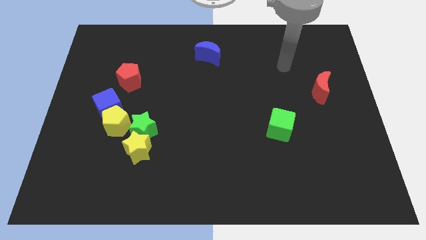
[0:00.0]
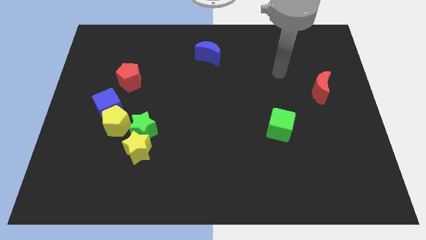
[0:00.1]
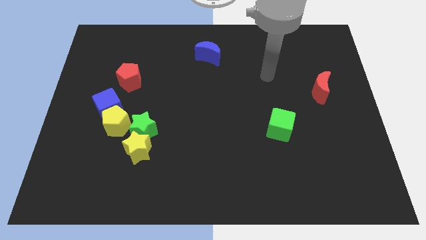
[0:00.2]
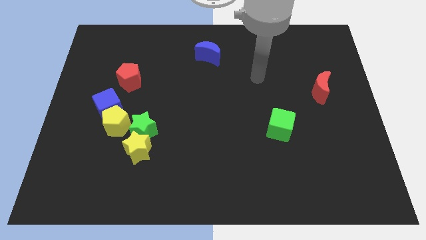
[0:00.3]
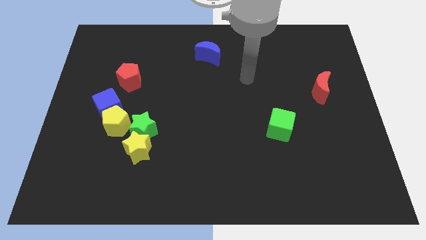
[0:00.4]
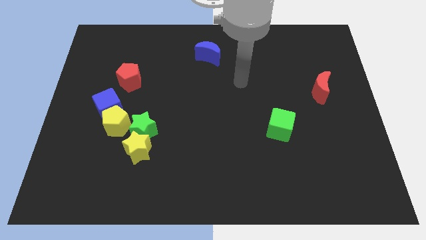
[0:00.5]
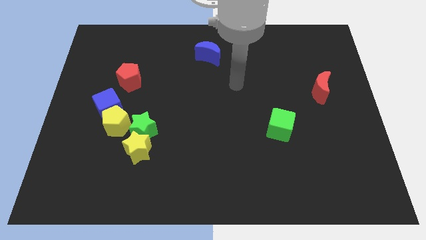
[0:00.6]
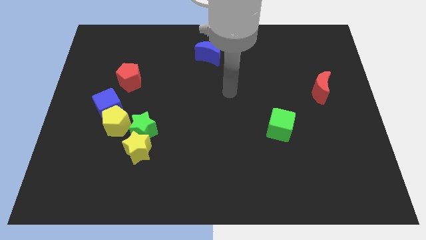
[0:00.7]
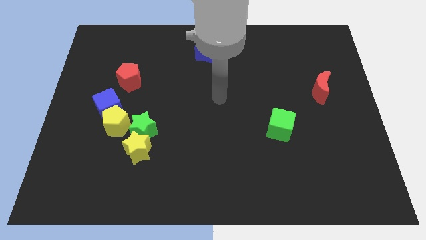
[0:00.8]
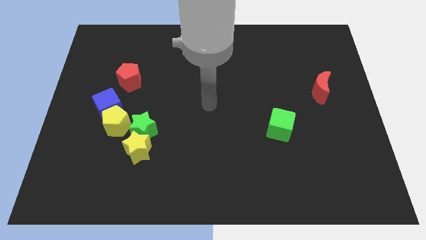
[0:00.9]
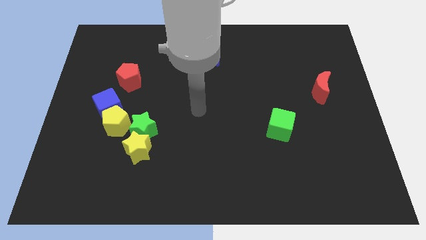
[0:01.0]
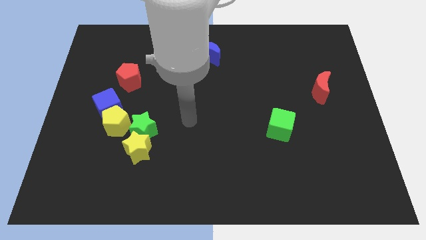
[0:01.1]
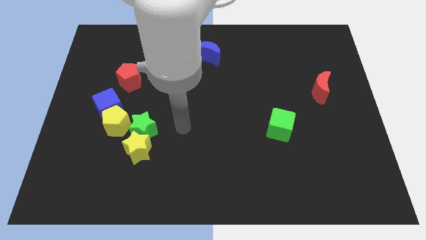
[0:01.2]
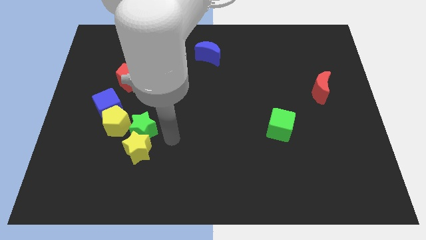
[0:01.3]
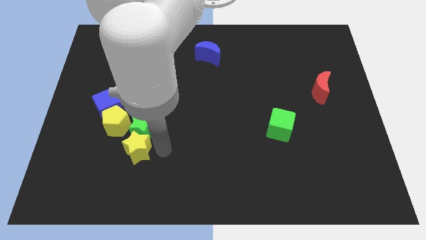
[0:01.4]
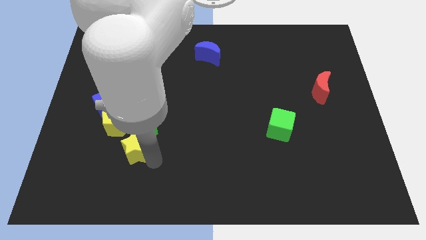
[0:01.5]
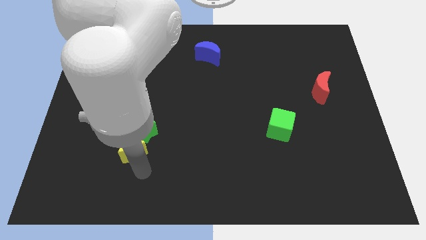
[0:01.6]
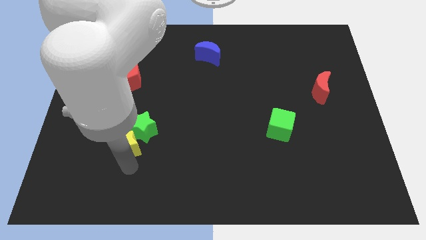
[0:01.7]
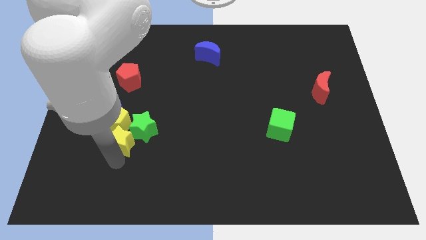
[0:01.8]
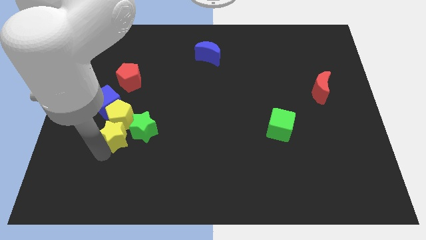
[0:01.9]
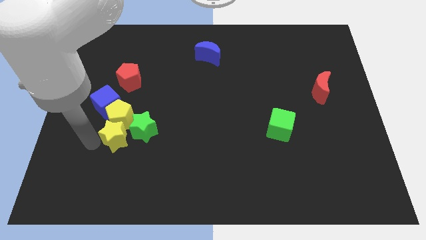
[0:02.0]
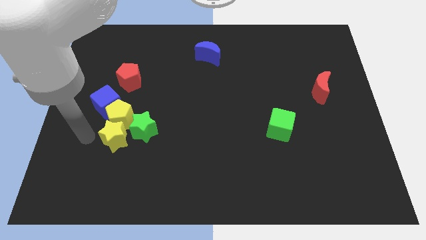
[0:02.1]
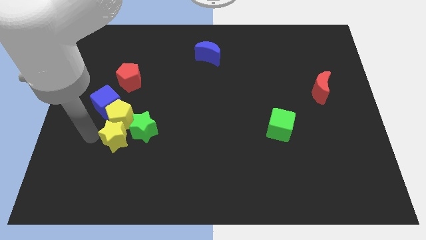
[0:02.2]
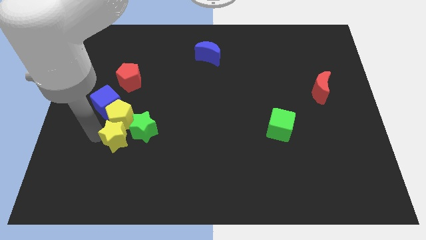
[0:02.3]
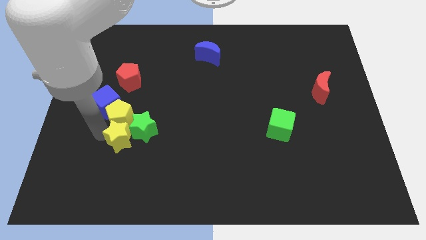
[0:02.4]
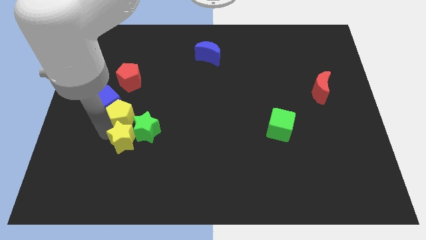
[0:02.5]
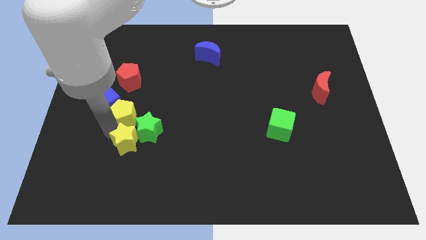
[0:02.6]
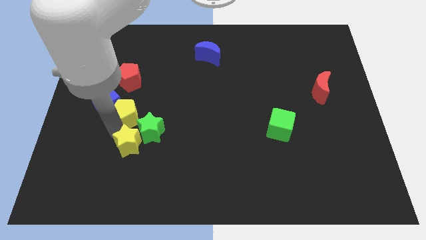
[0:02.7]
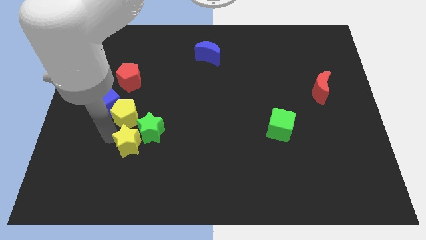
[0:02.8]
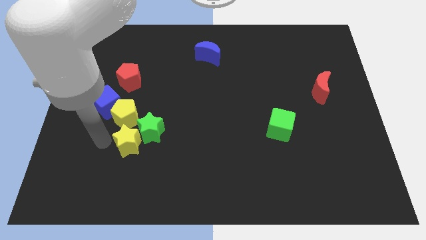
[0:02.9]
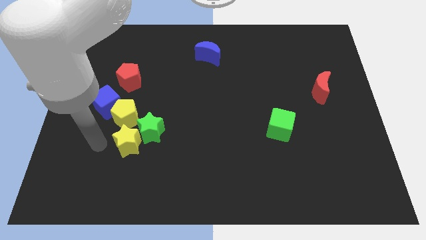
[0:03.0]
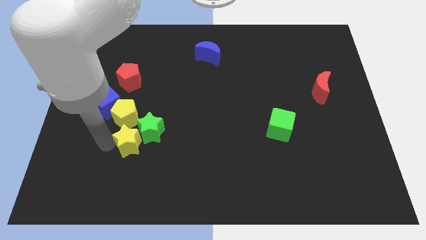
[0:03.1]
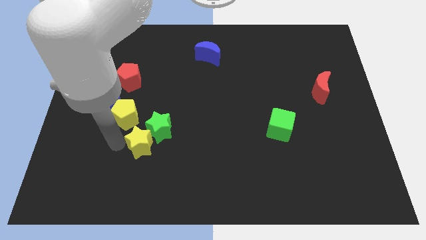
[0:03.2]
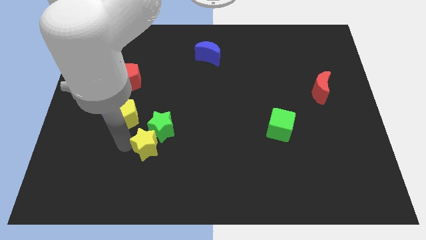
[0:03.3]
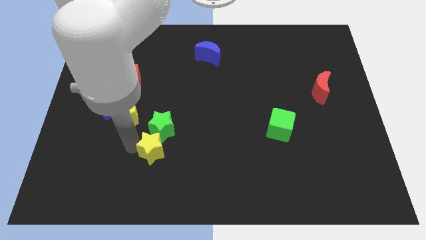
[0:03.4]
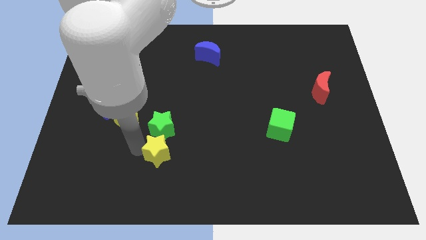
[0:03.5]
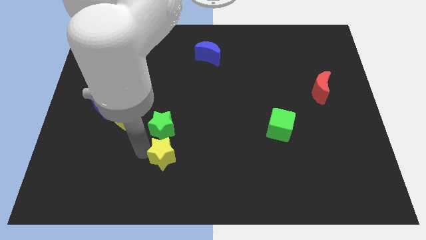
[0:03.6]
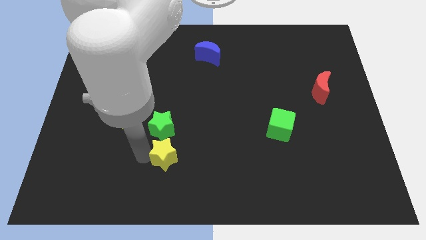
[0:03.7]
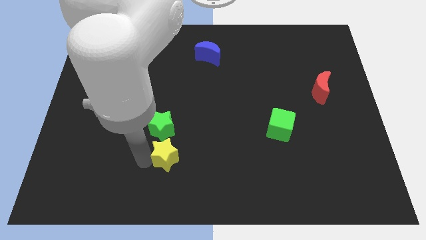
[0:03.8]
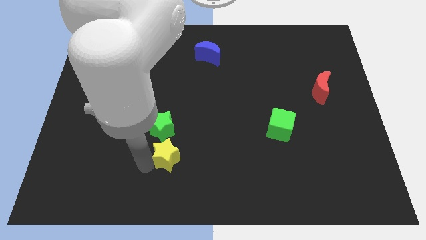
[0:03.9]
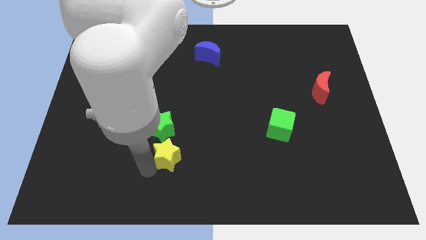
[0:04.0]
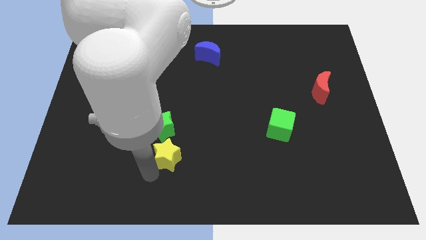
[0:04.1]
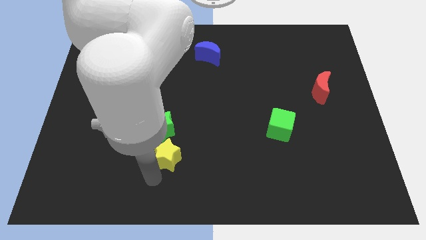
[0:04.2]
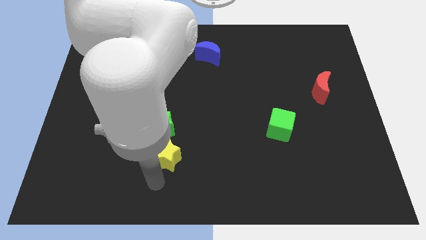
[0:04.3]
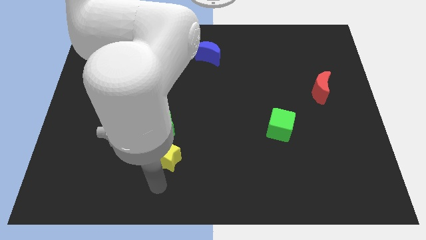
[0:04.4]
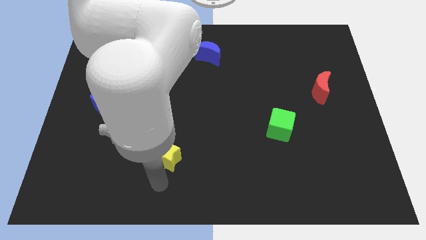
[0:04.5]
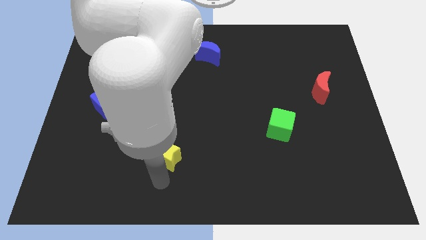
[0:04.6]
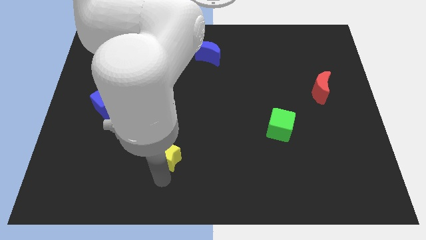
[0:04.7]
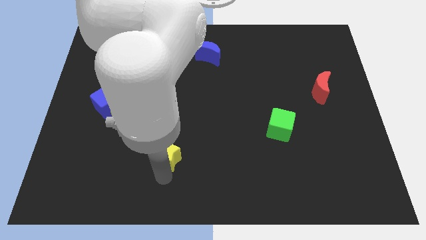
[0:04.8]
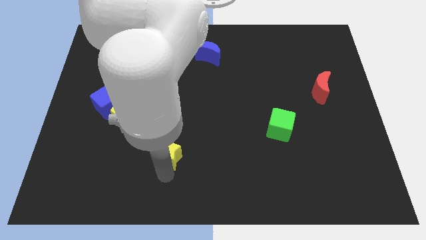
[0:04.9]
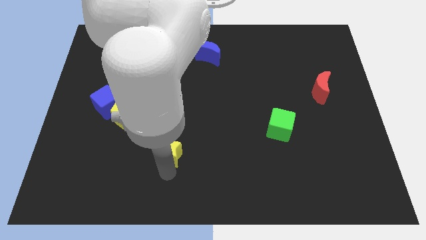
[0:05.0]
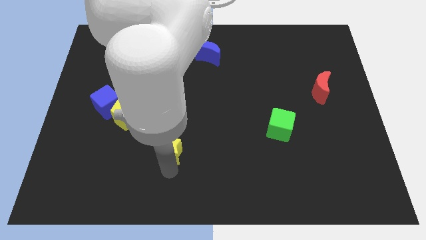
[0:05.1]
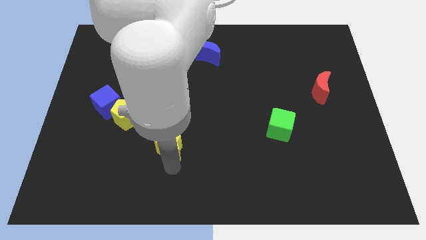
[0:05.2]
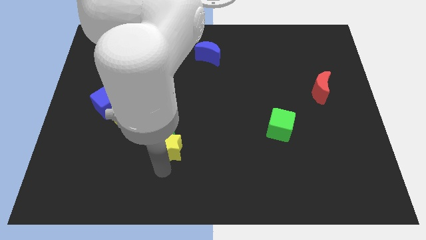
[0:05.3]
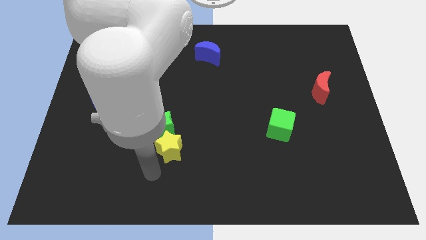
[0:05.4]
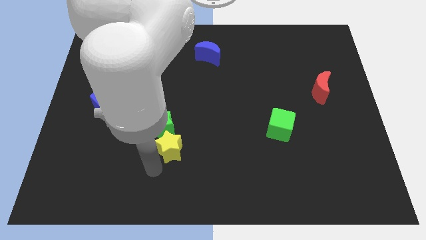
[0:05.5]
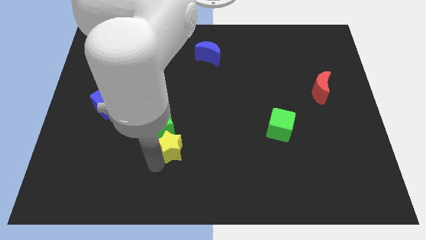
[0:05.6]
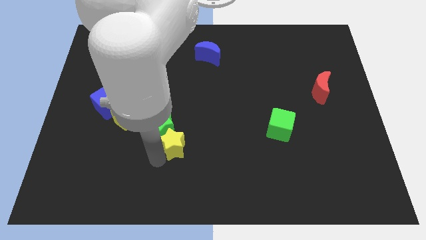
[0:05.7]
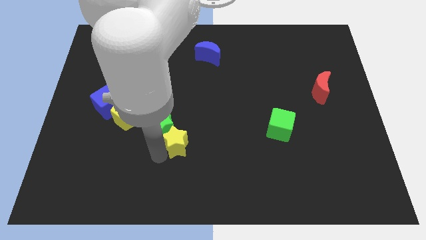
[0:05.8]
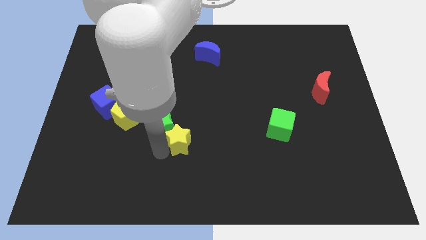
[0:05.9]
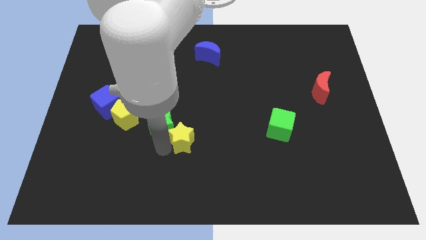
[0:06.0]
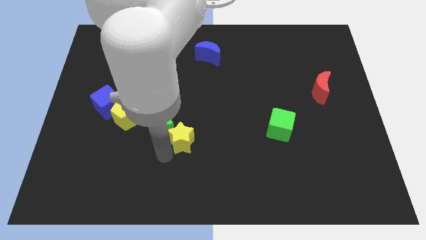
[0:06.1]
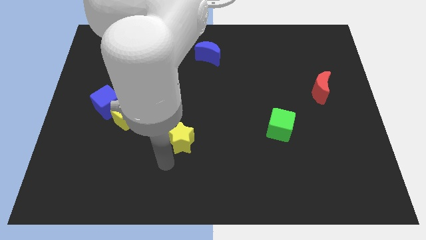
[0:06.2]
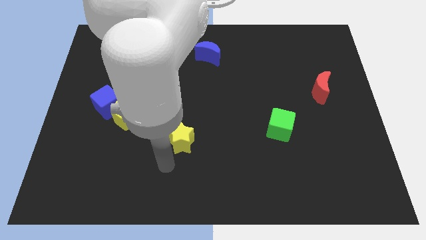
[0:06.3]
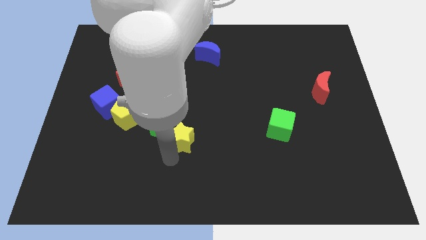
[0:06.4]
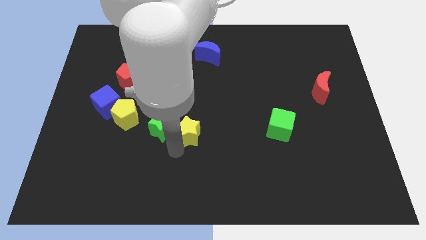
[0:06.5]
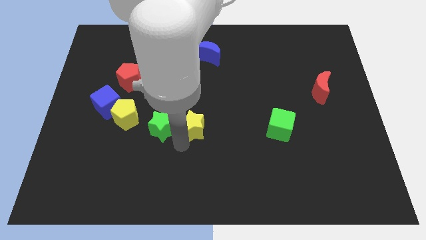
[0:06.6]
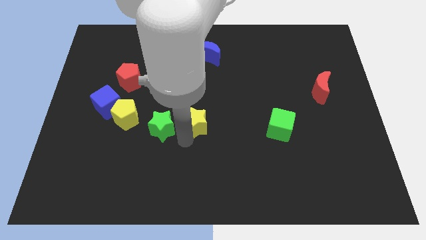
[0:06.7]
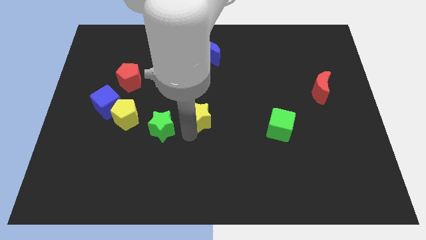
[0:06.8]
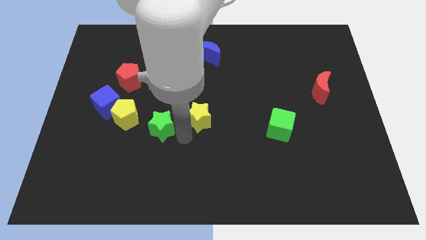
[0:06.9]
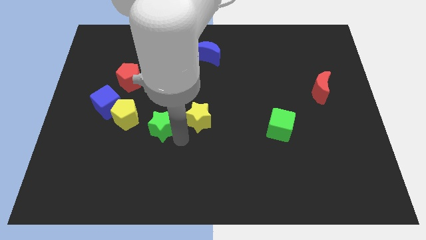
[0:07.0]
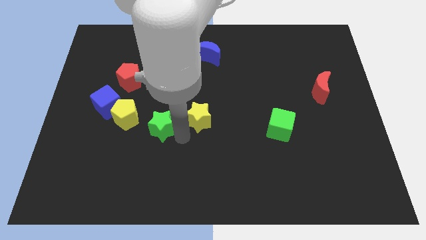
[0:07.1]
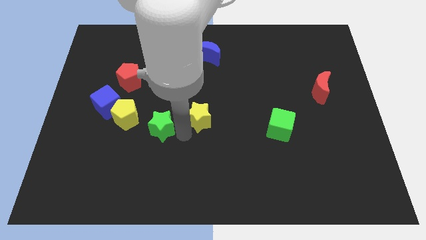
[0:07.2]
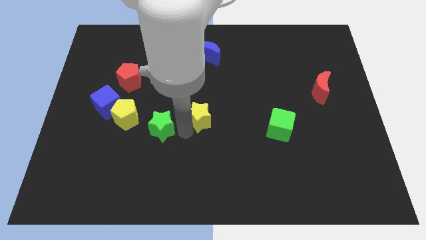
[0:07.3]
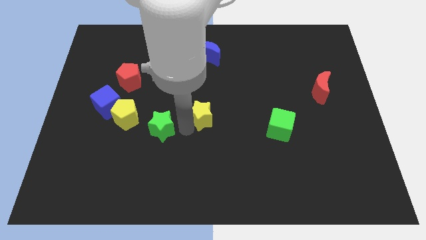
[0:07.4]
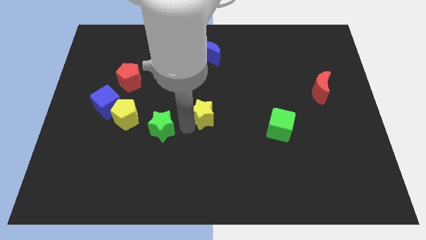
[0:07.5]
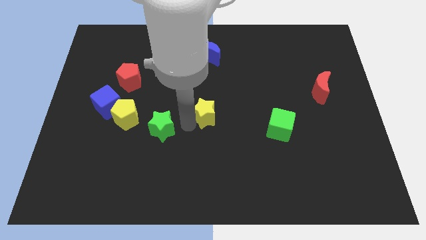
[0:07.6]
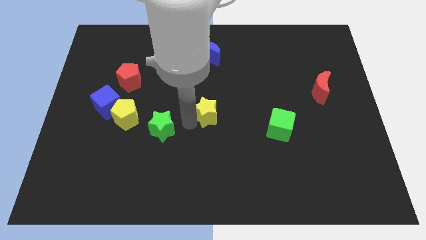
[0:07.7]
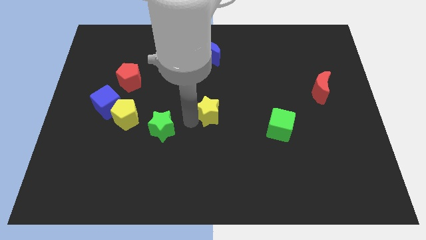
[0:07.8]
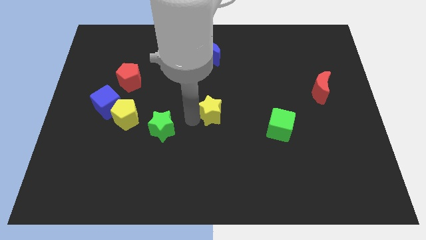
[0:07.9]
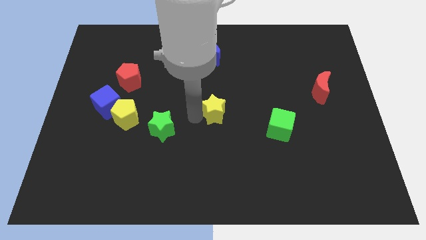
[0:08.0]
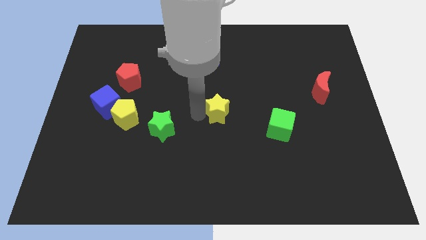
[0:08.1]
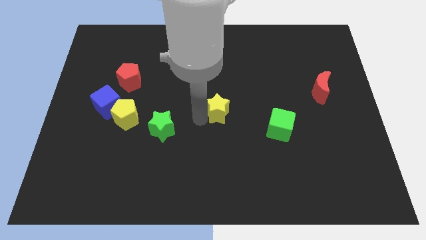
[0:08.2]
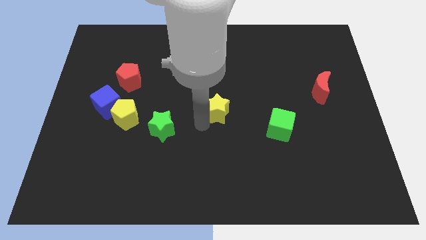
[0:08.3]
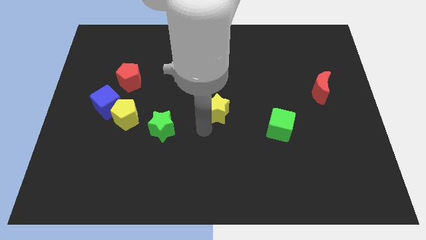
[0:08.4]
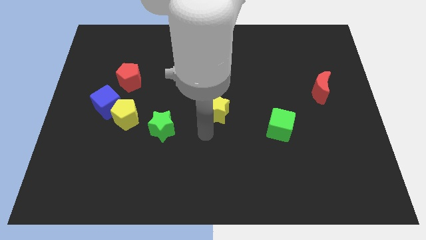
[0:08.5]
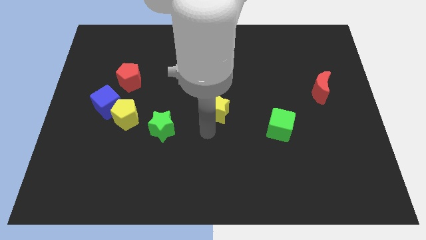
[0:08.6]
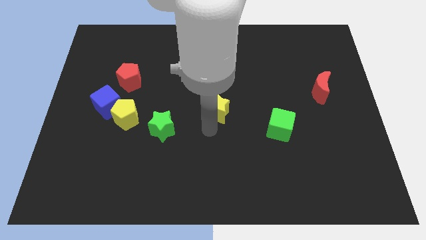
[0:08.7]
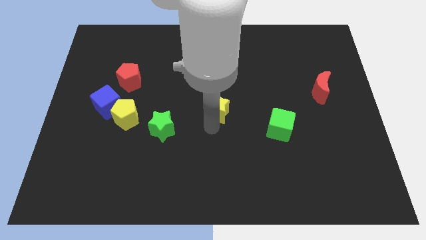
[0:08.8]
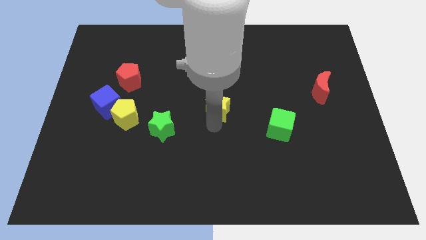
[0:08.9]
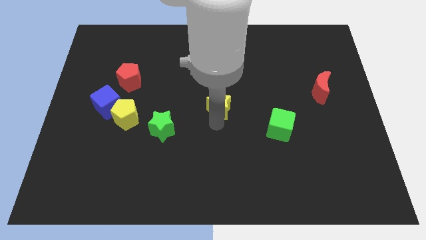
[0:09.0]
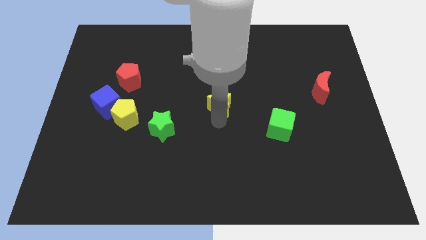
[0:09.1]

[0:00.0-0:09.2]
push the yellow star upwards and then to the right
